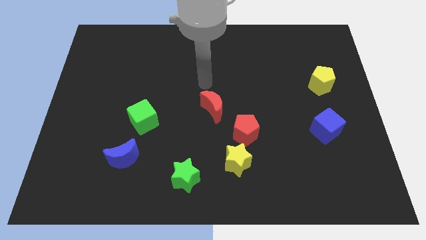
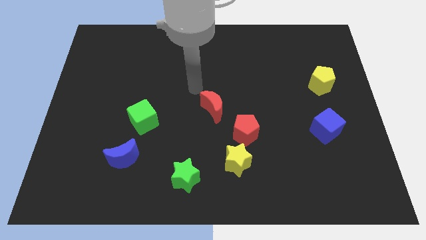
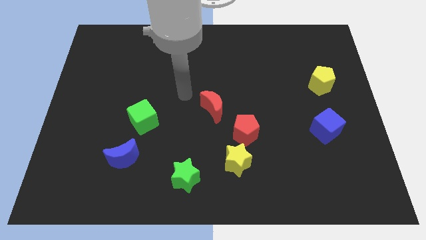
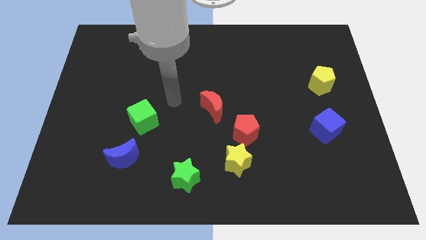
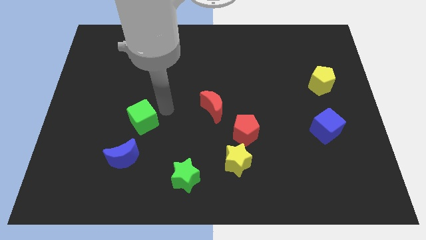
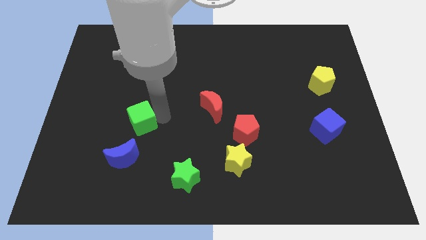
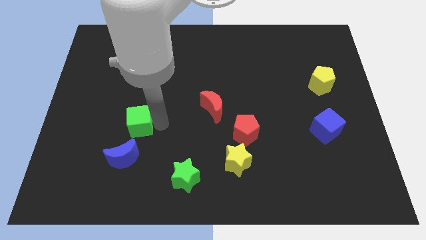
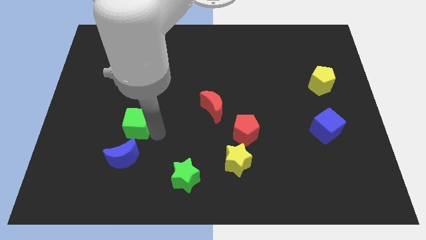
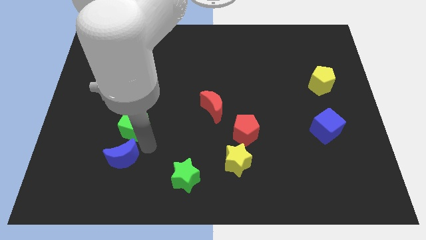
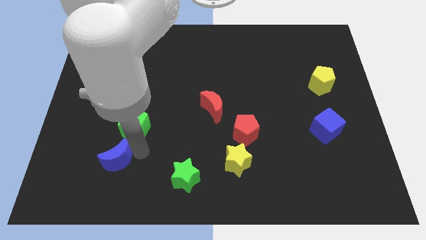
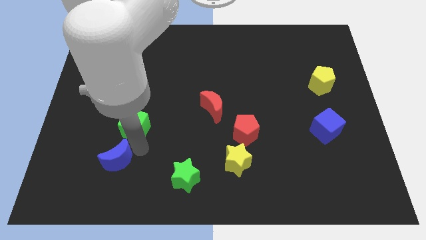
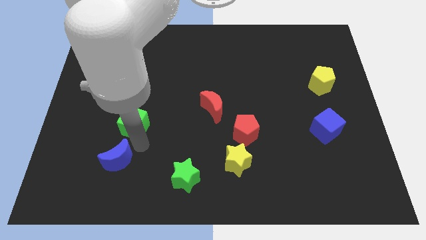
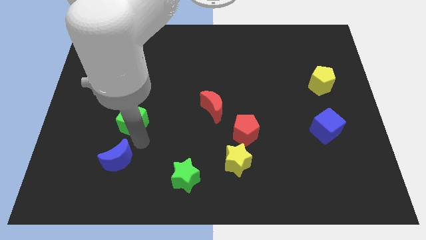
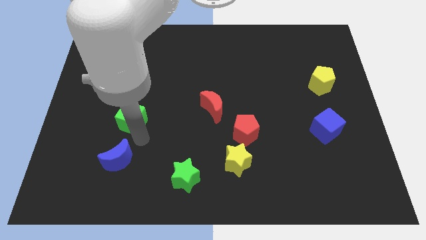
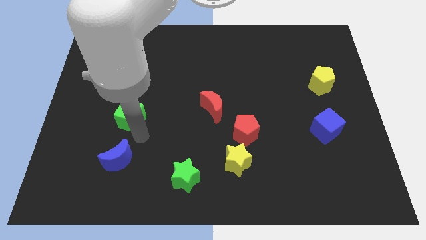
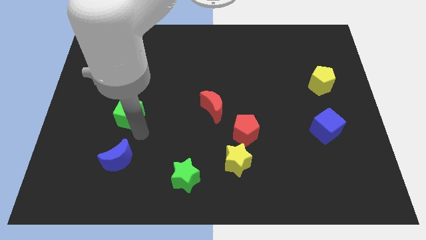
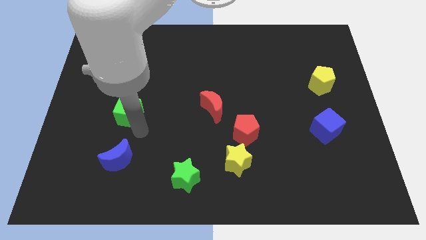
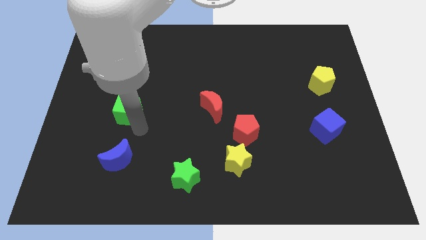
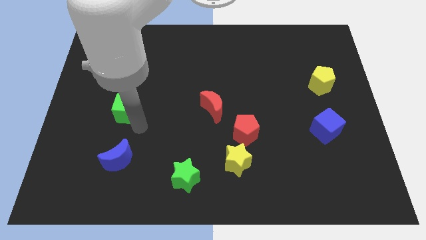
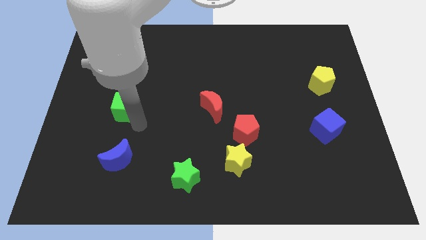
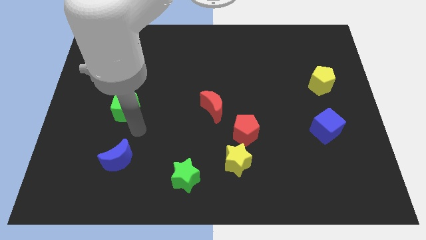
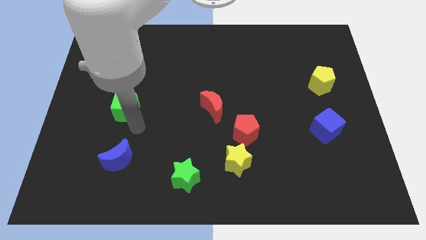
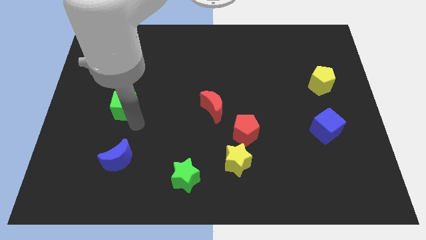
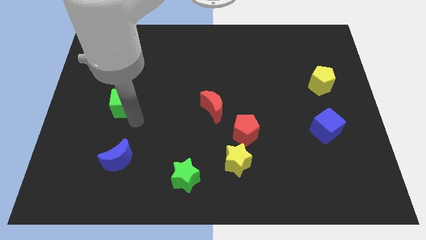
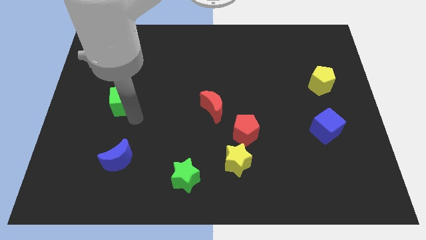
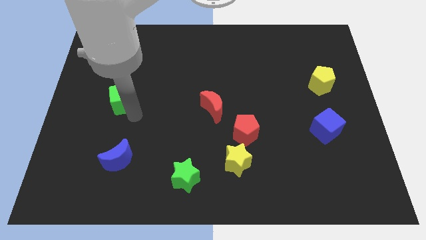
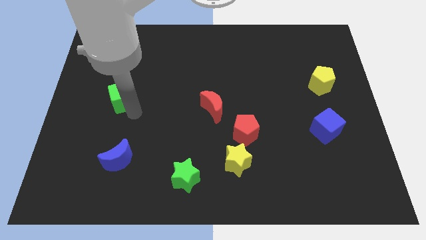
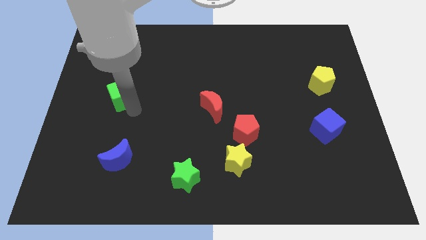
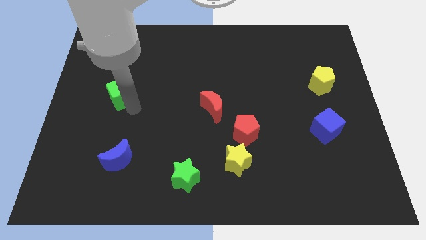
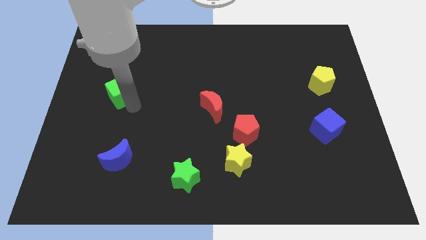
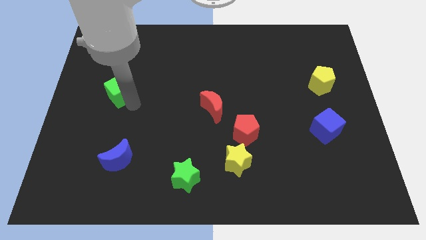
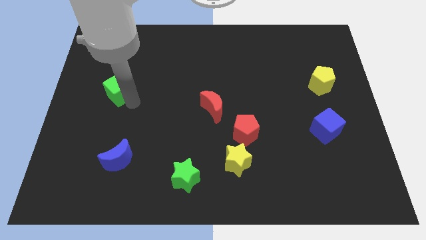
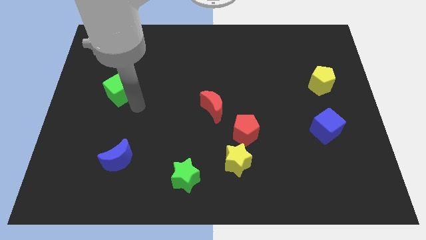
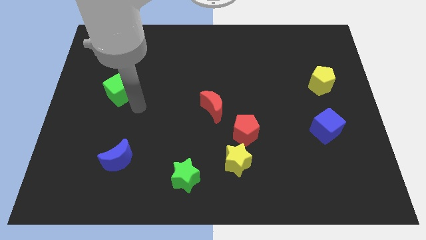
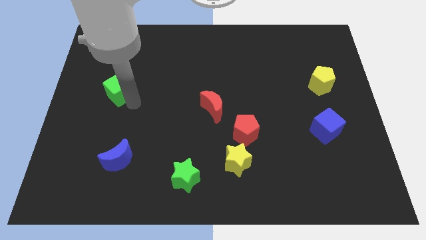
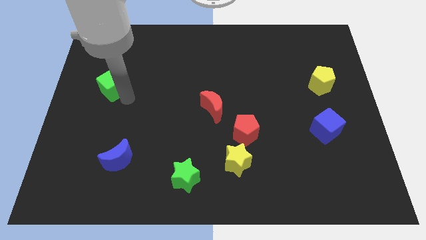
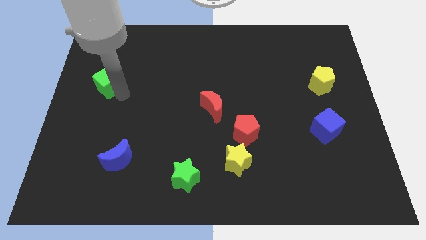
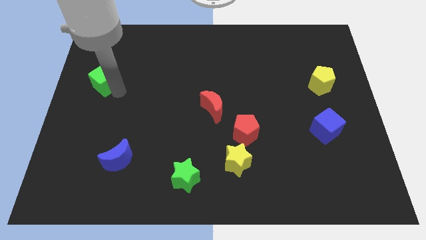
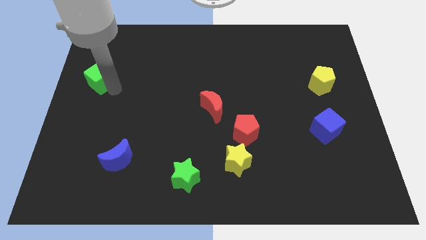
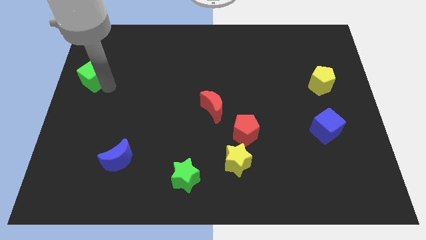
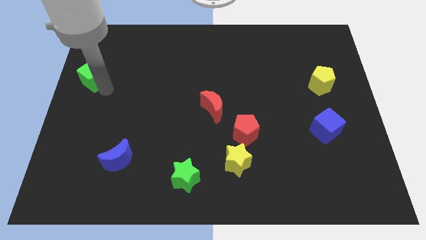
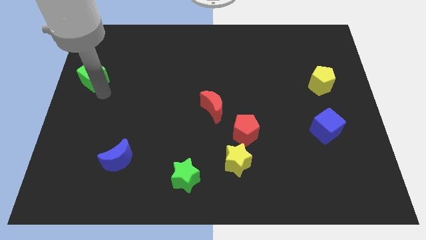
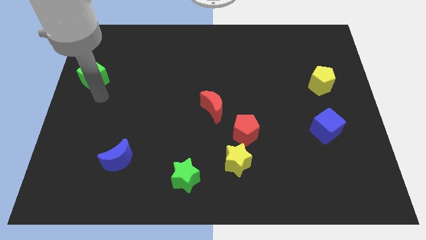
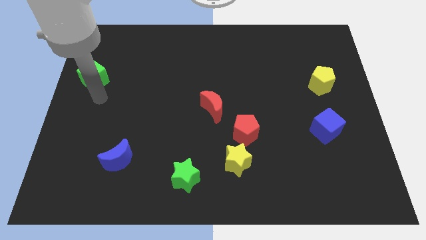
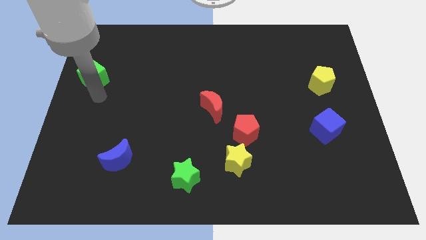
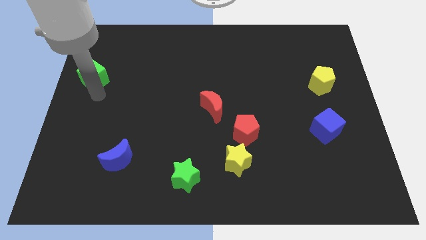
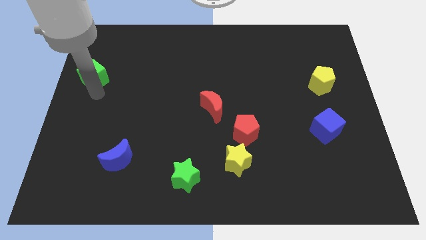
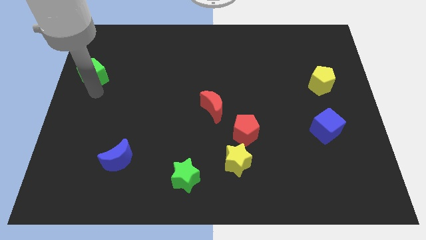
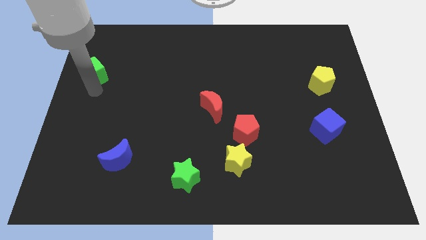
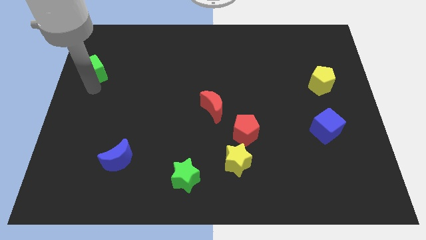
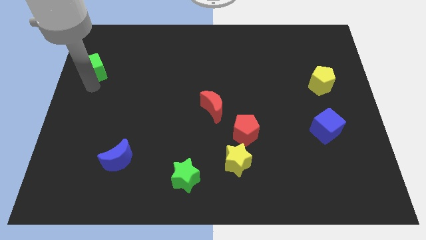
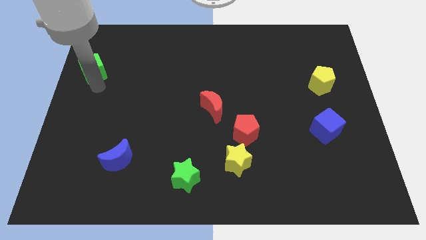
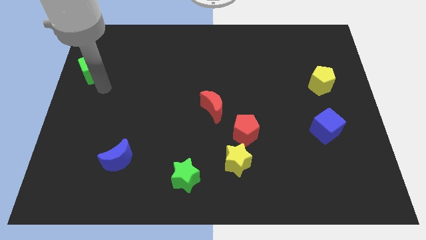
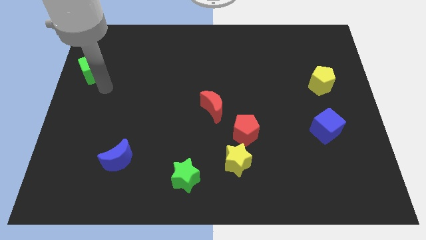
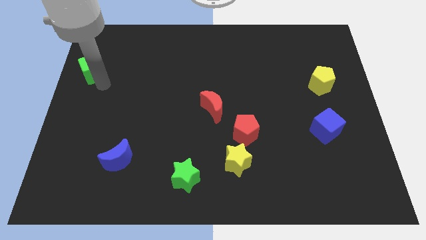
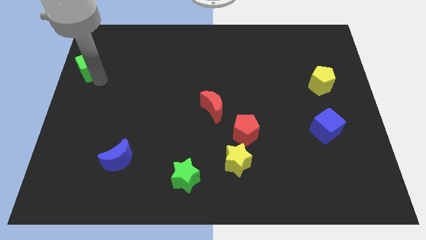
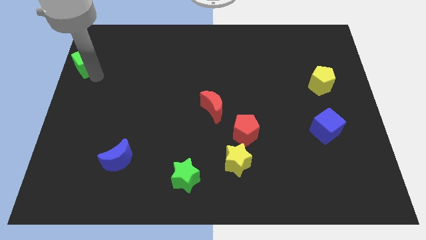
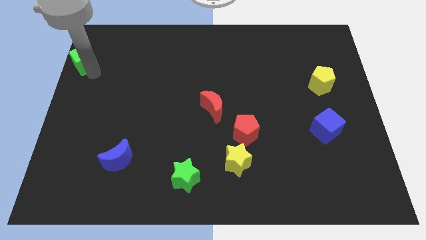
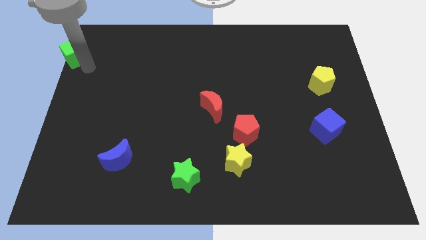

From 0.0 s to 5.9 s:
put the green cube to the upper left corner
